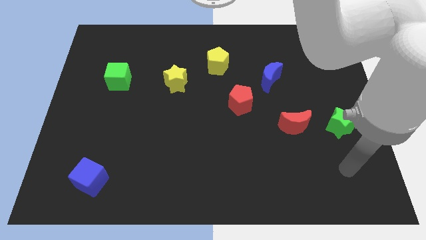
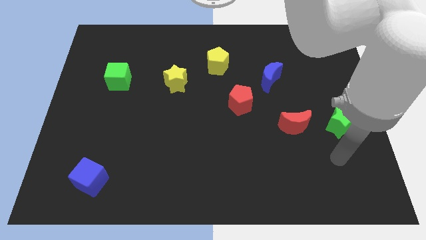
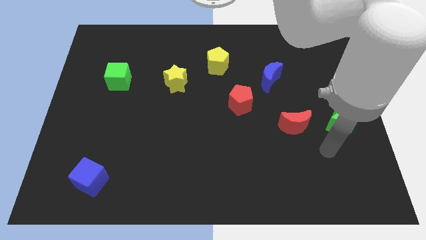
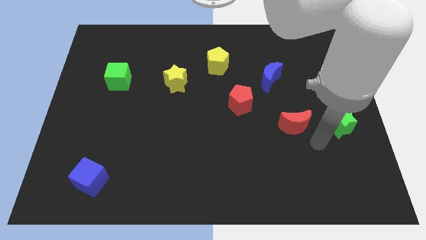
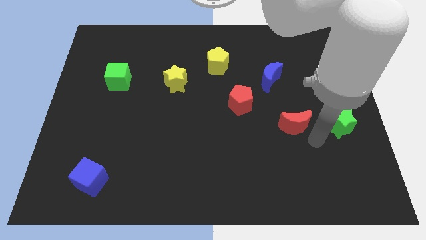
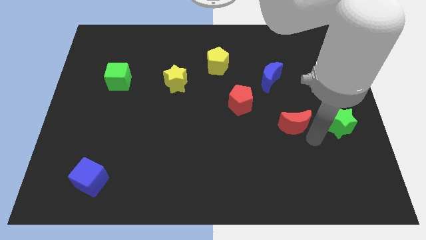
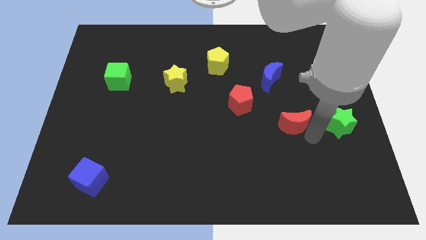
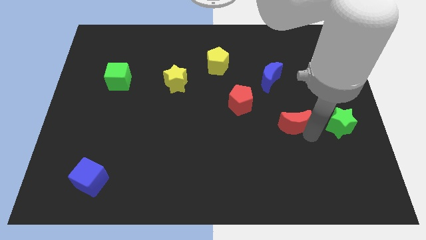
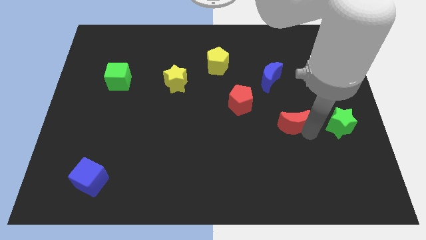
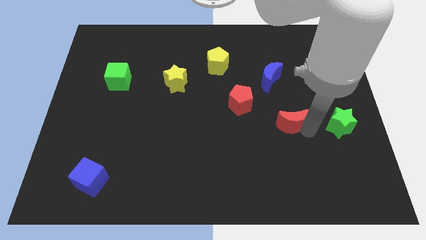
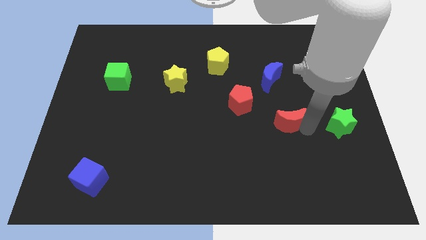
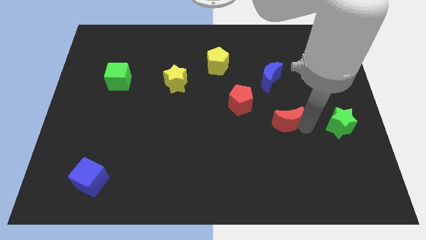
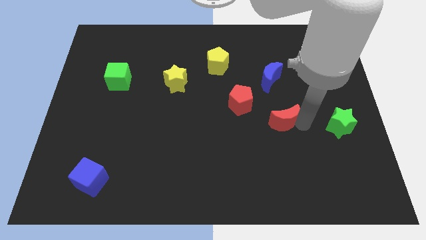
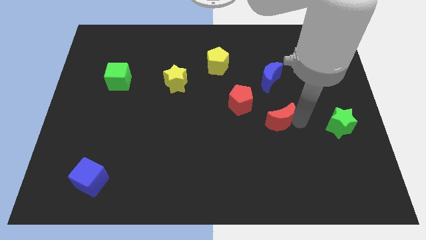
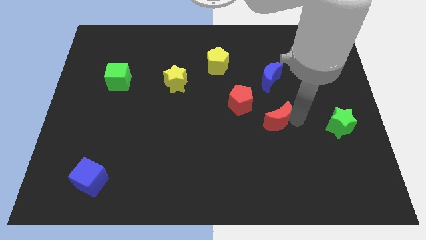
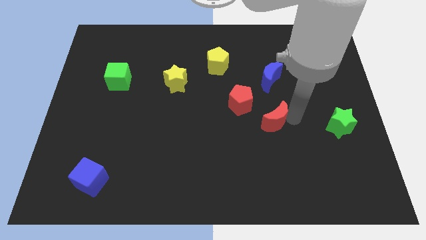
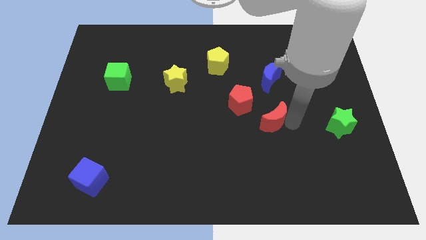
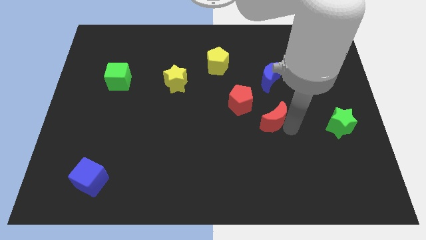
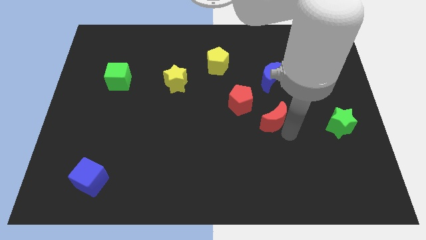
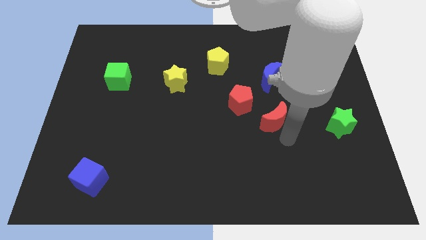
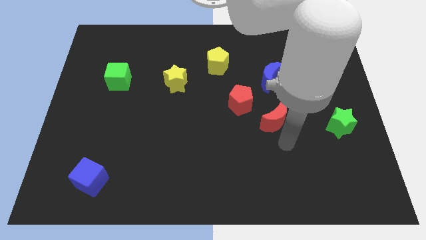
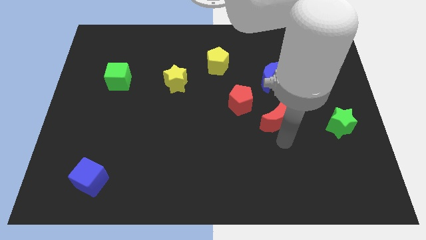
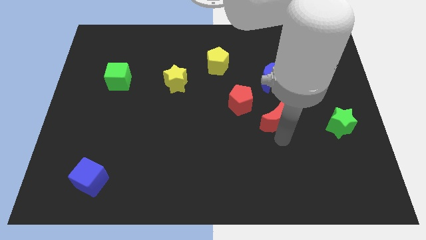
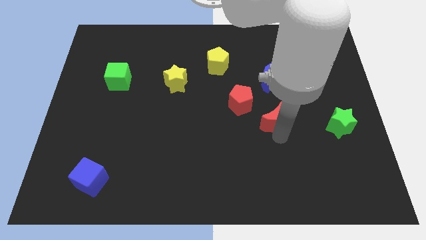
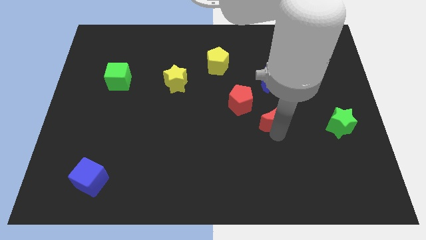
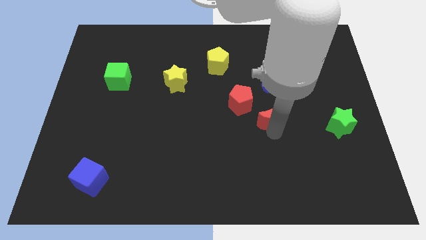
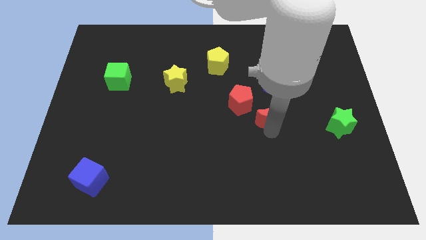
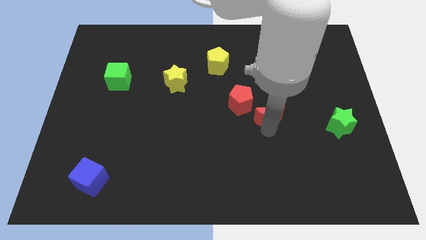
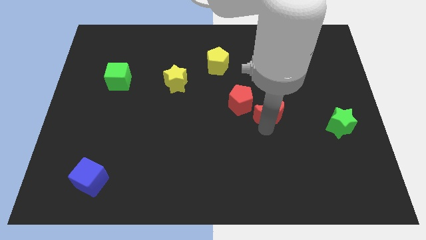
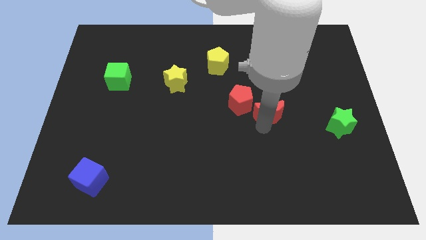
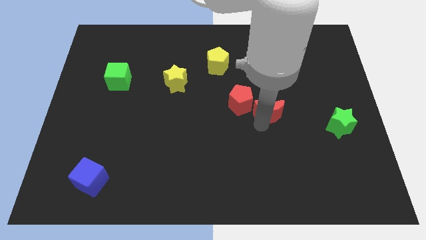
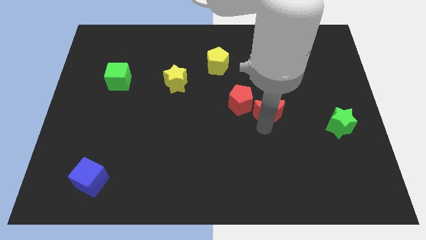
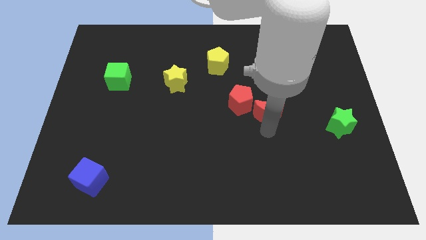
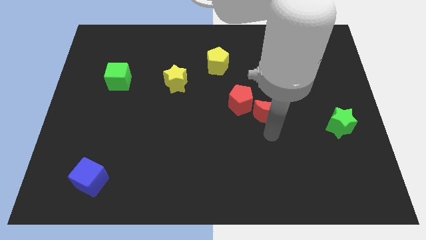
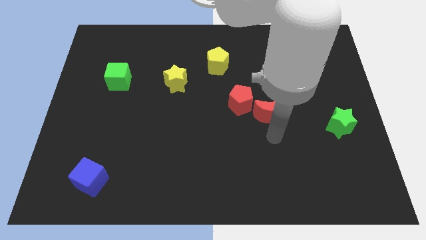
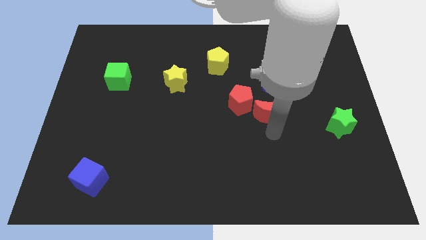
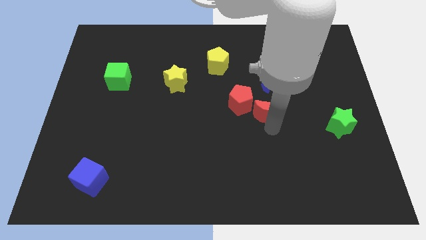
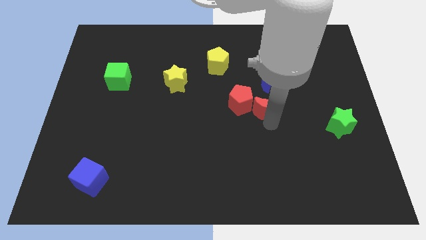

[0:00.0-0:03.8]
push the red moon a bit up and left diagonally

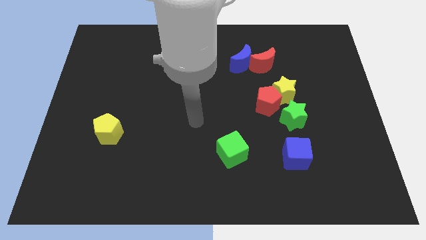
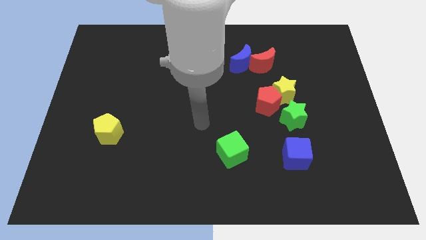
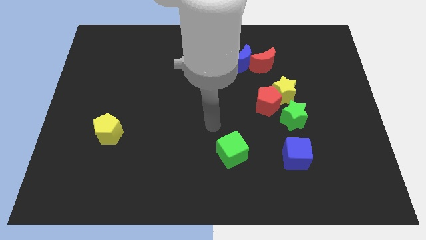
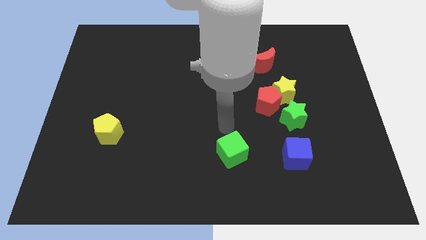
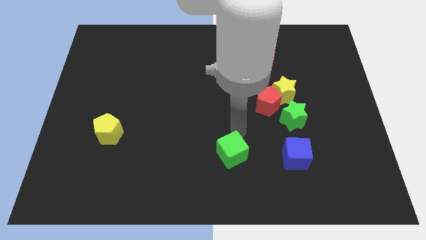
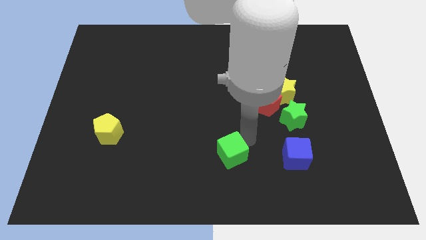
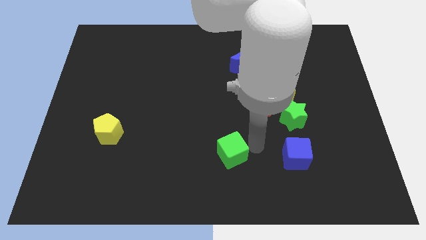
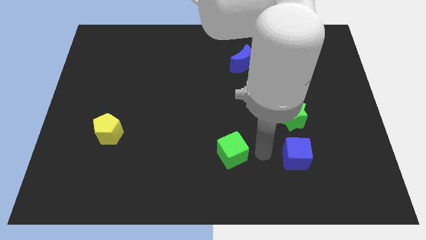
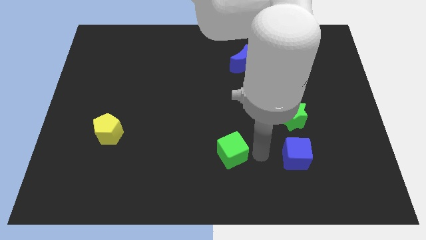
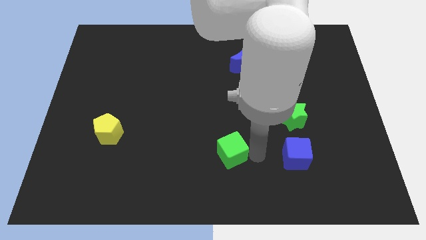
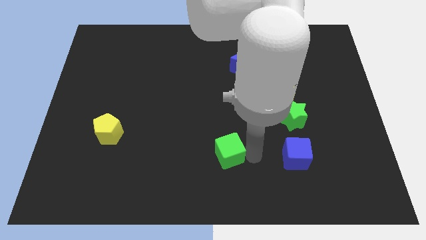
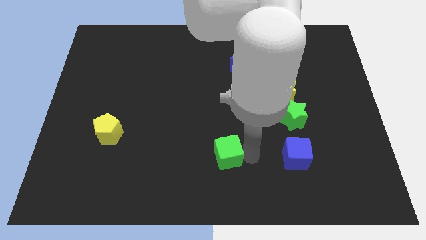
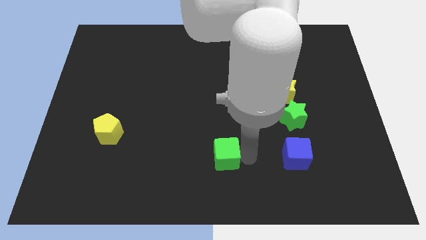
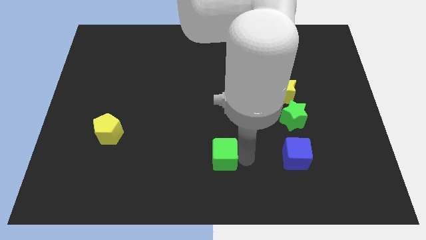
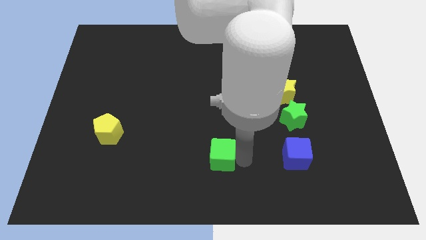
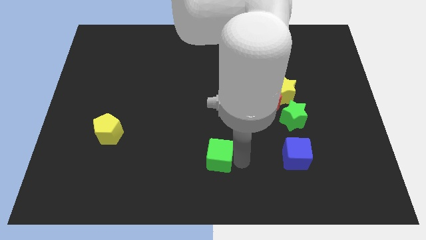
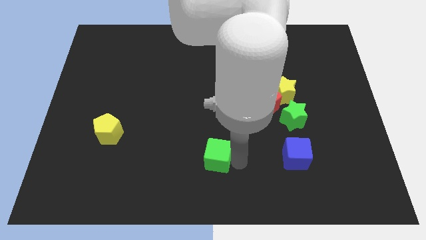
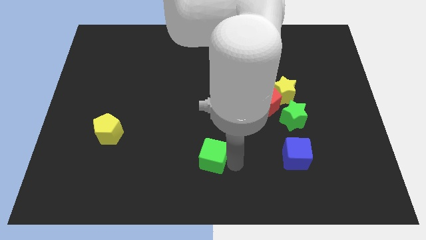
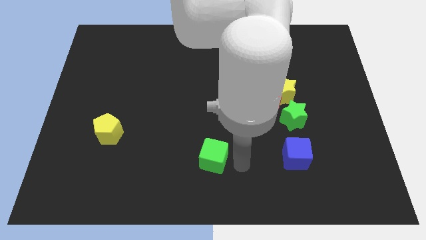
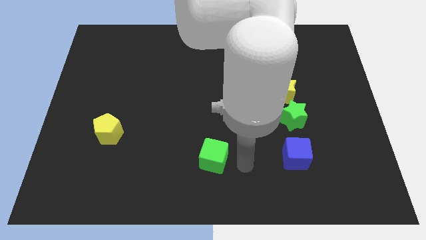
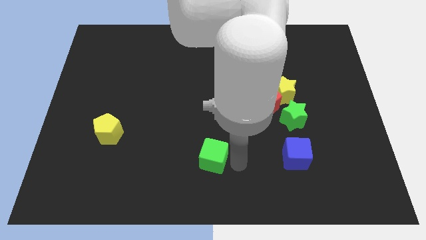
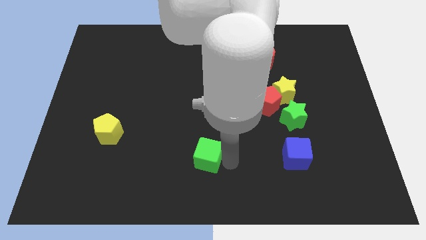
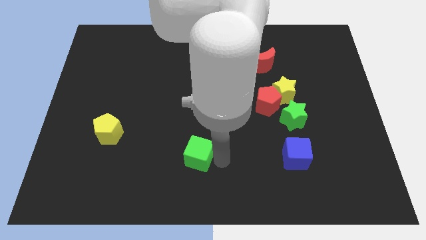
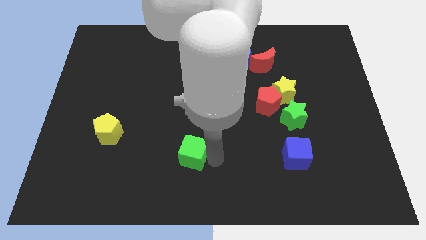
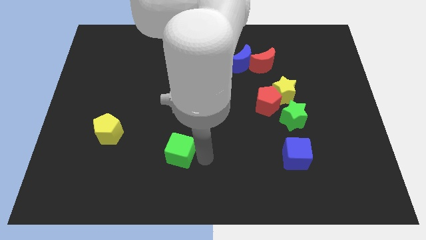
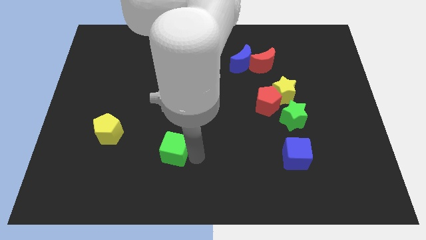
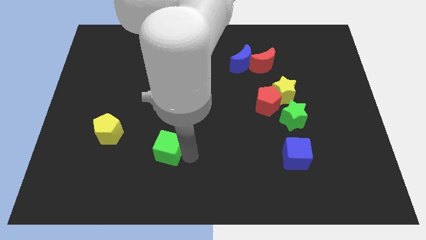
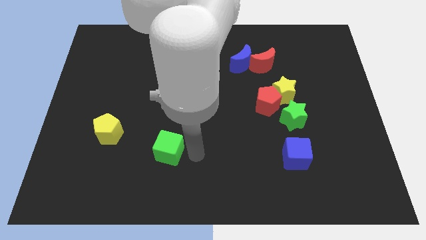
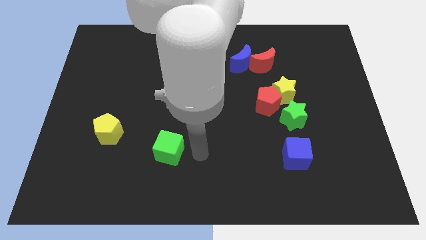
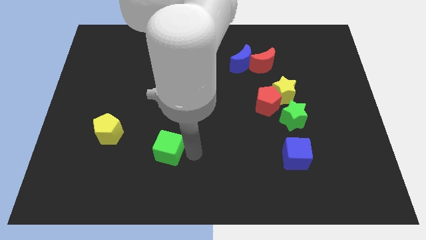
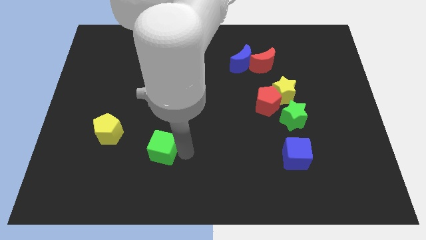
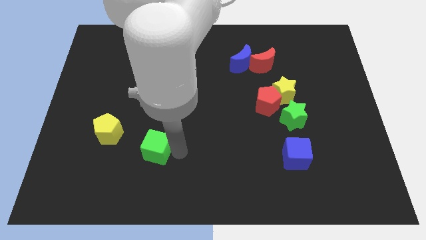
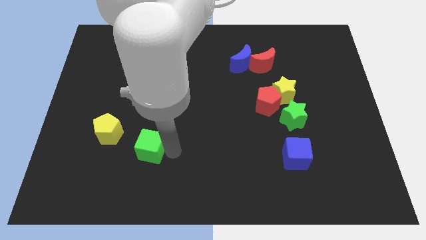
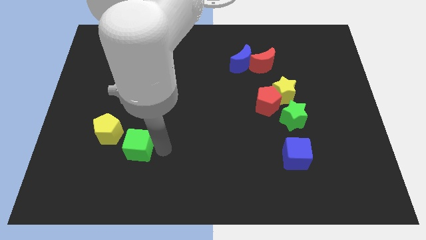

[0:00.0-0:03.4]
move the green cube to the left

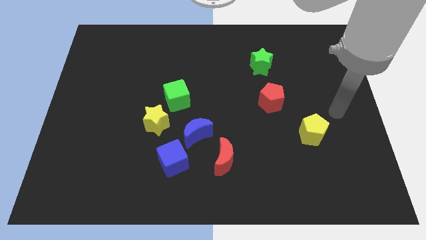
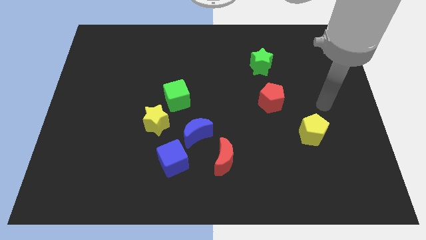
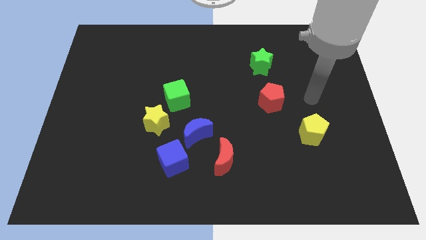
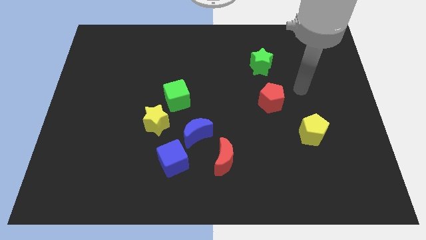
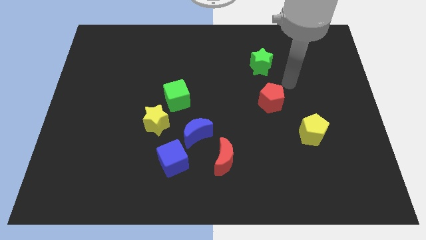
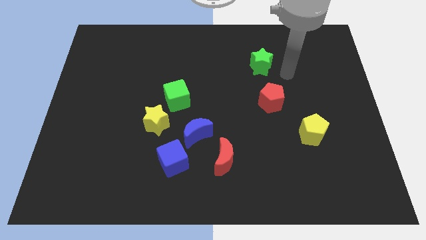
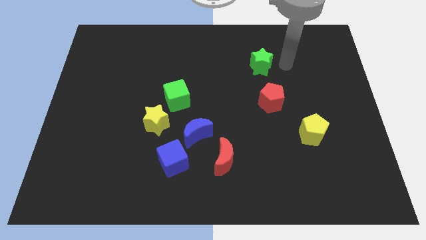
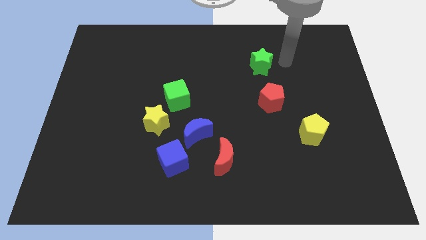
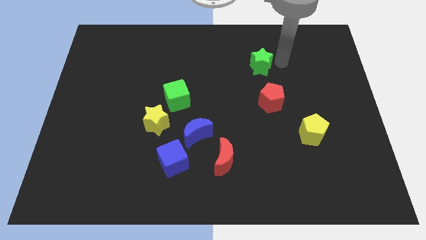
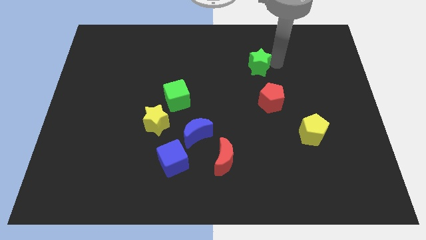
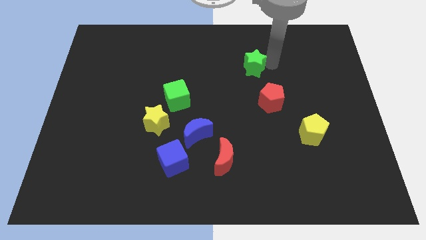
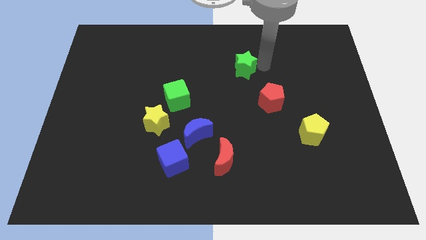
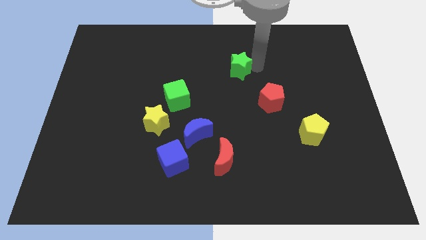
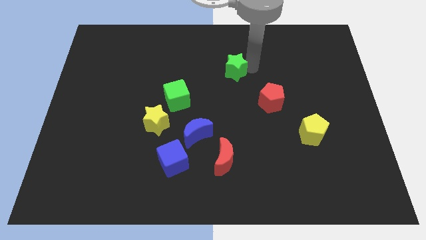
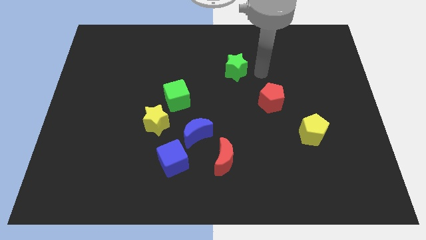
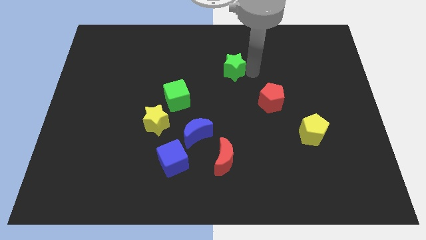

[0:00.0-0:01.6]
slightly move the green star left
